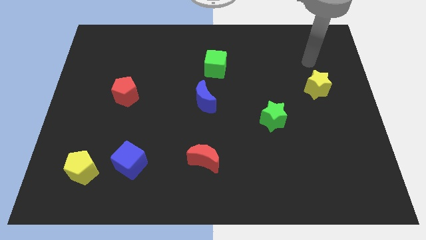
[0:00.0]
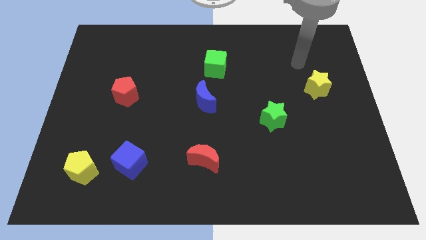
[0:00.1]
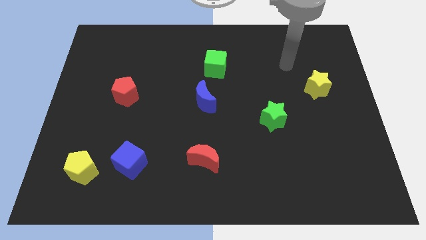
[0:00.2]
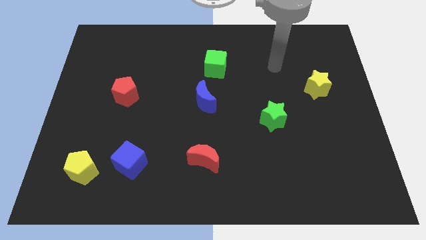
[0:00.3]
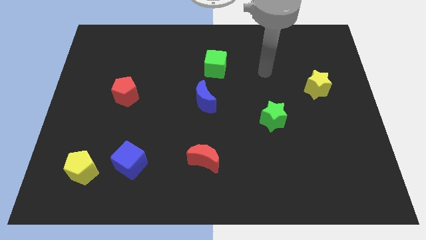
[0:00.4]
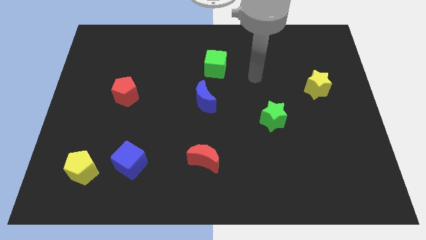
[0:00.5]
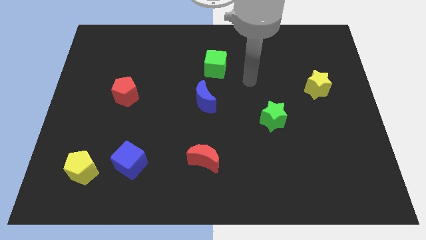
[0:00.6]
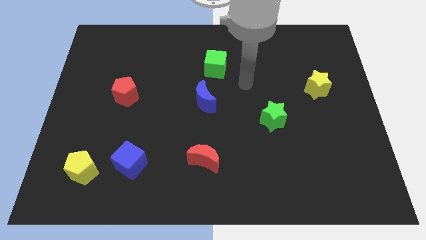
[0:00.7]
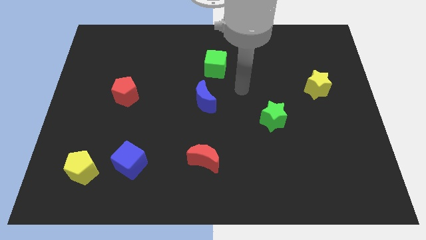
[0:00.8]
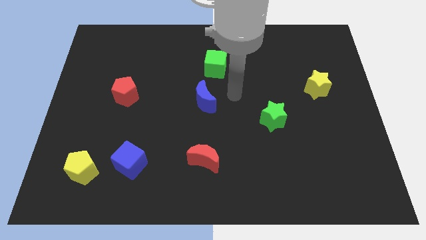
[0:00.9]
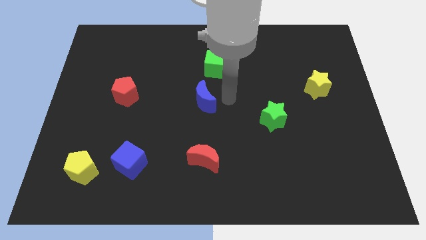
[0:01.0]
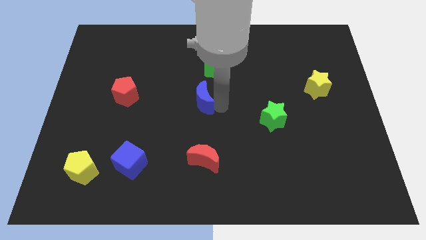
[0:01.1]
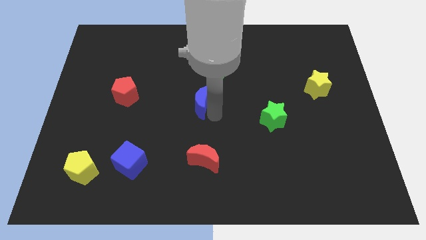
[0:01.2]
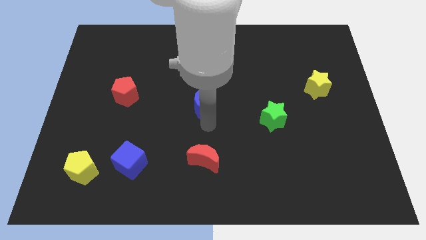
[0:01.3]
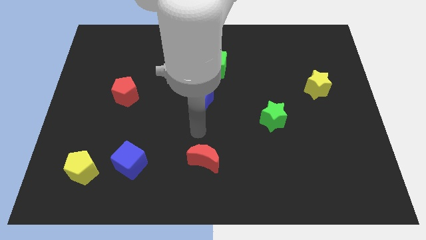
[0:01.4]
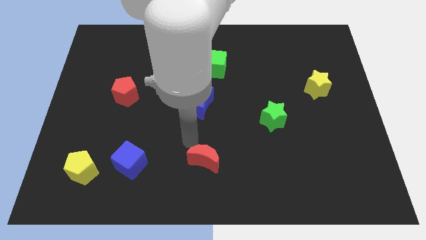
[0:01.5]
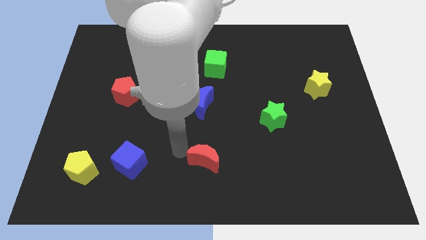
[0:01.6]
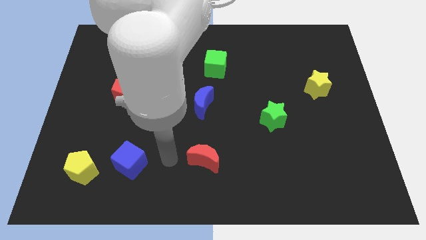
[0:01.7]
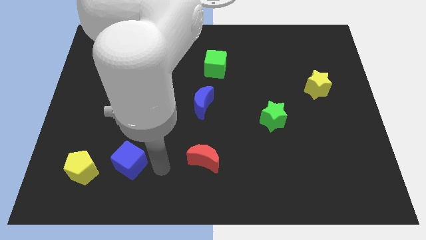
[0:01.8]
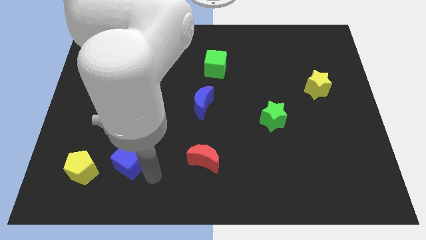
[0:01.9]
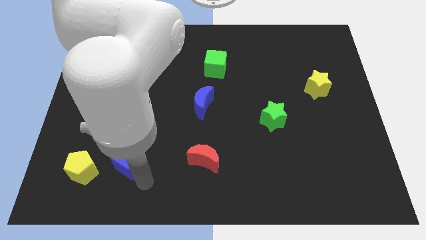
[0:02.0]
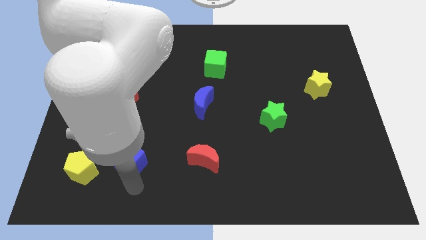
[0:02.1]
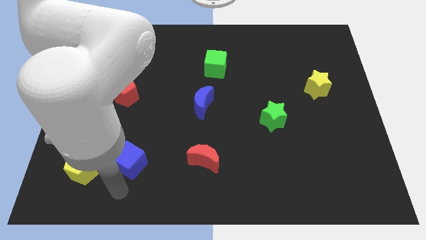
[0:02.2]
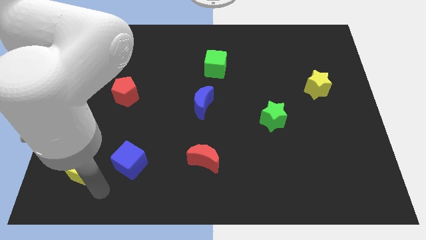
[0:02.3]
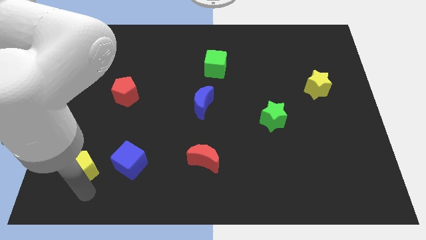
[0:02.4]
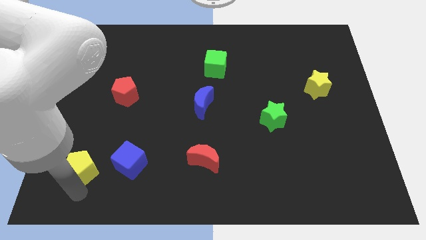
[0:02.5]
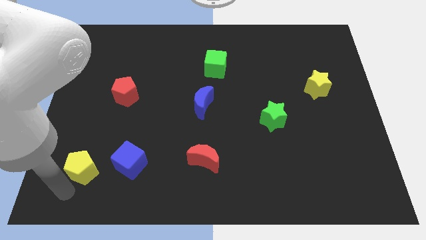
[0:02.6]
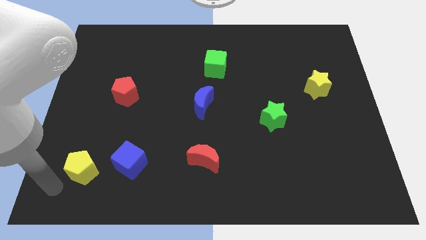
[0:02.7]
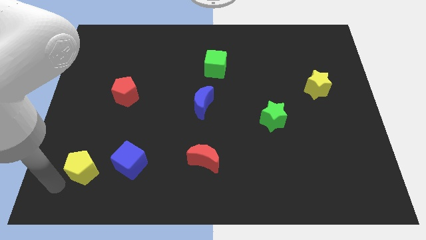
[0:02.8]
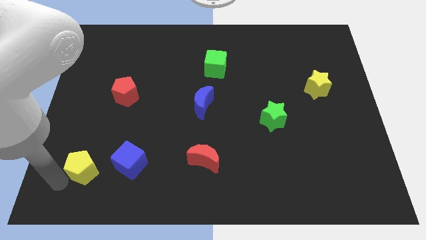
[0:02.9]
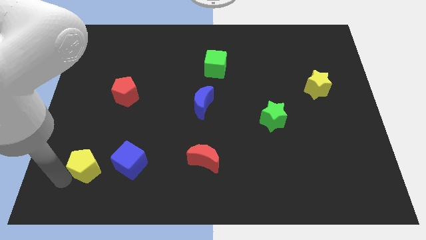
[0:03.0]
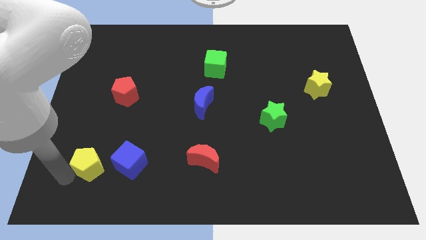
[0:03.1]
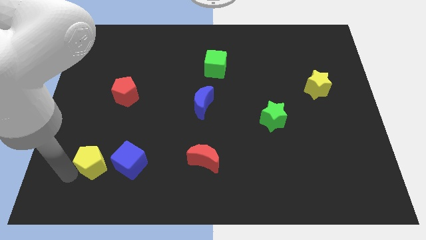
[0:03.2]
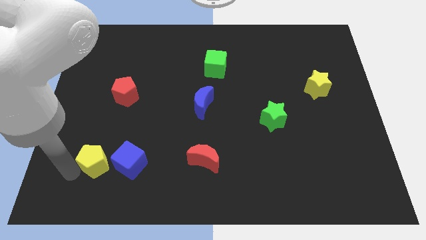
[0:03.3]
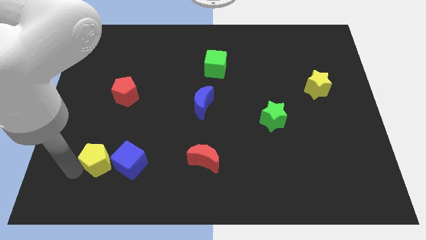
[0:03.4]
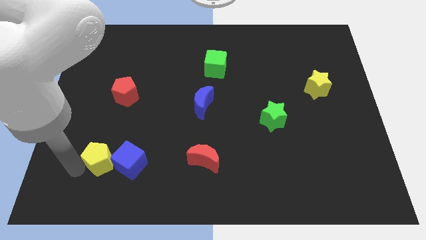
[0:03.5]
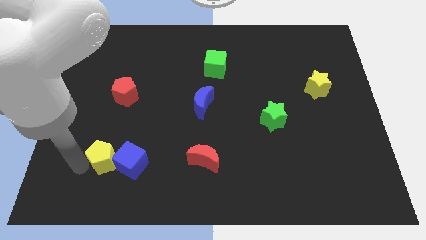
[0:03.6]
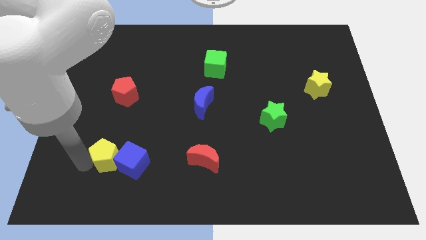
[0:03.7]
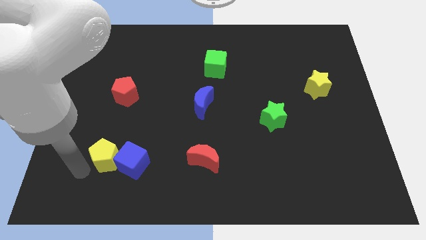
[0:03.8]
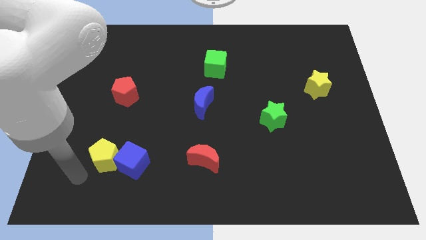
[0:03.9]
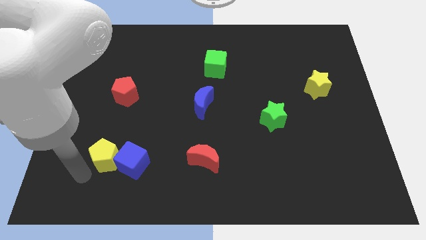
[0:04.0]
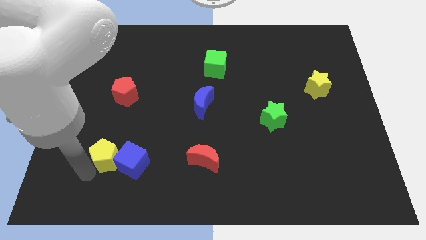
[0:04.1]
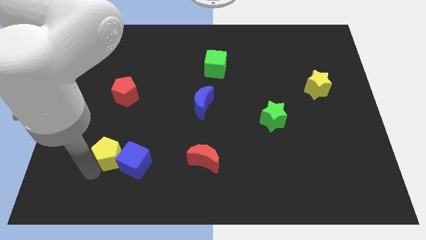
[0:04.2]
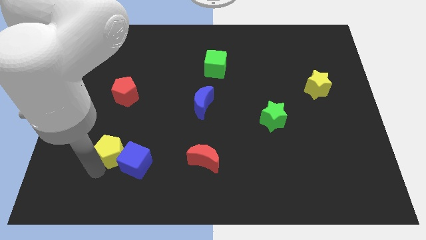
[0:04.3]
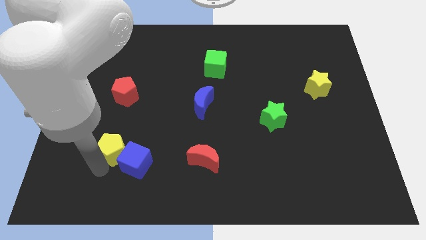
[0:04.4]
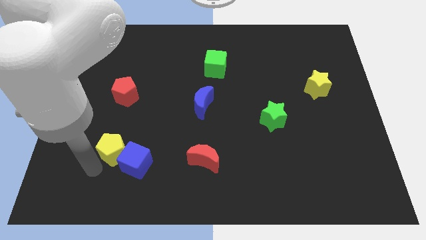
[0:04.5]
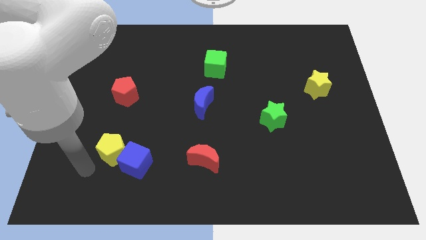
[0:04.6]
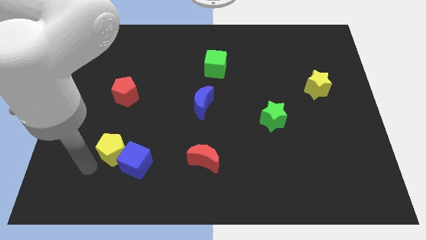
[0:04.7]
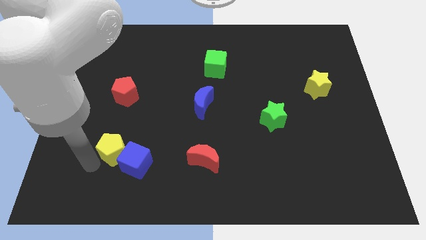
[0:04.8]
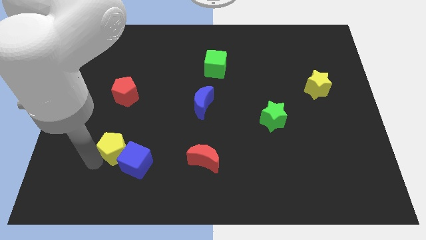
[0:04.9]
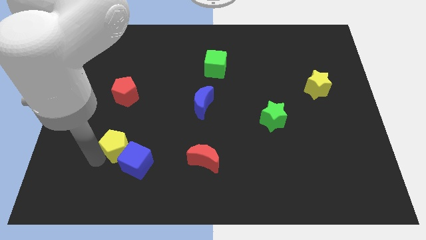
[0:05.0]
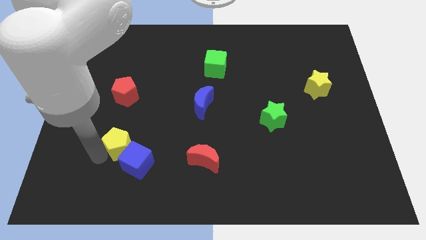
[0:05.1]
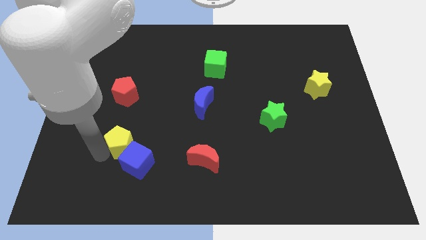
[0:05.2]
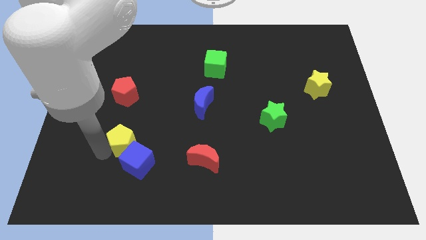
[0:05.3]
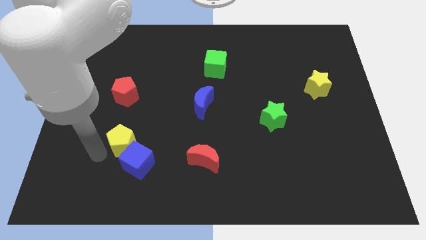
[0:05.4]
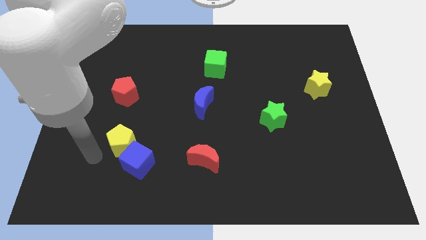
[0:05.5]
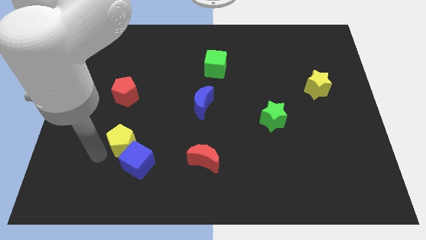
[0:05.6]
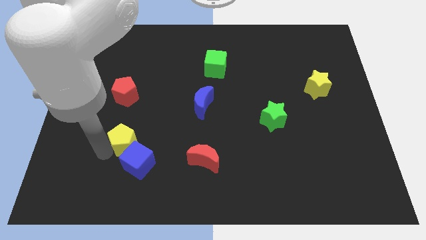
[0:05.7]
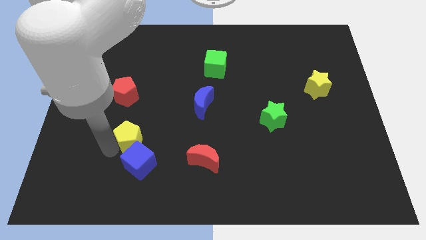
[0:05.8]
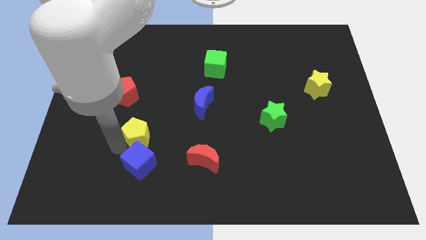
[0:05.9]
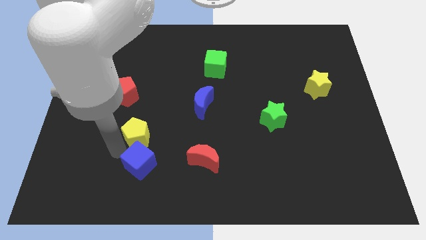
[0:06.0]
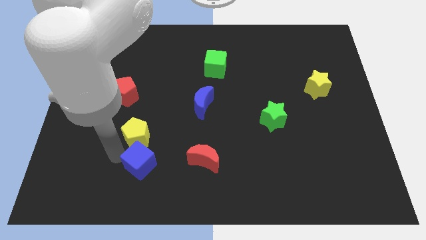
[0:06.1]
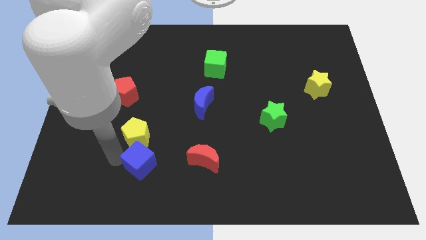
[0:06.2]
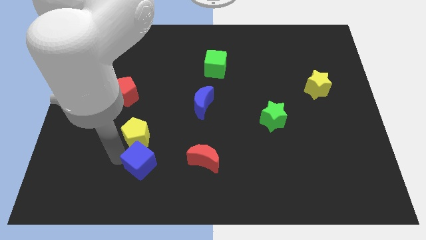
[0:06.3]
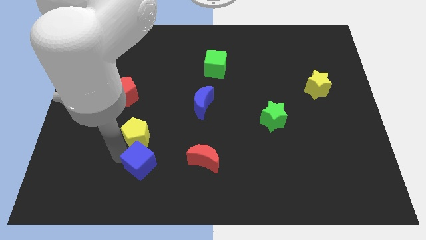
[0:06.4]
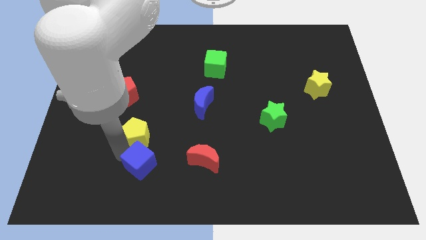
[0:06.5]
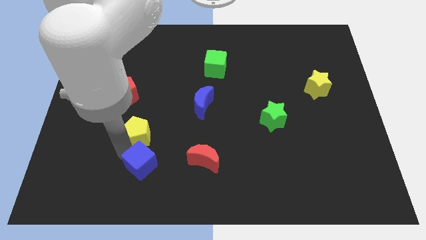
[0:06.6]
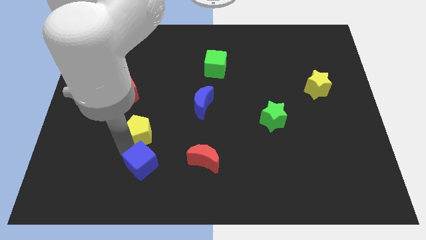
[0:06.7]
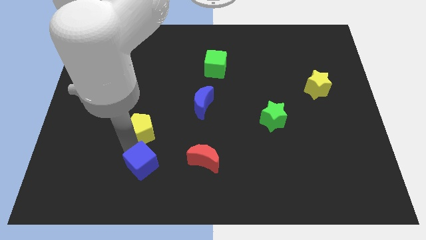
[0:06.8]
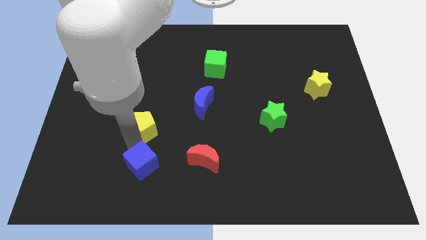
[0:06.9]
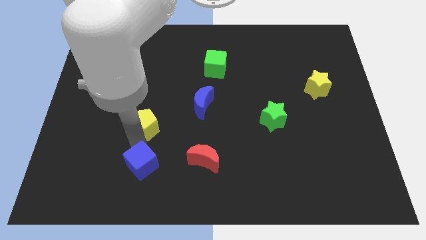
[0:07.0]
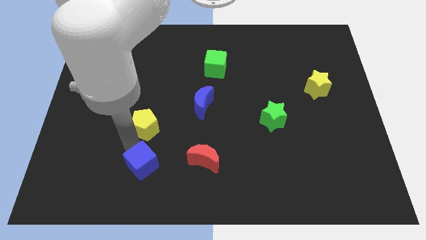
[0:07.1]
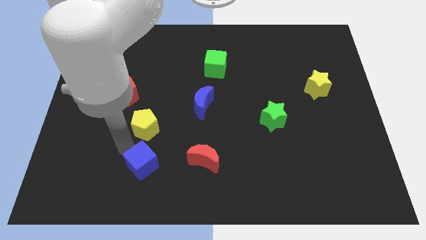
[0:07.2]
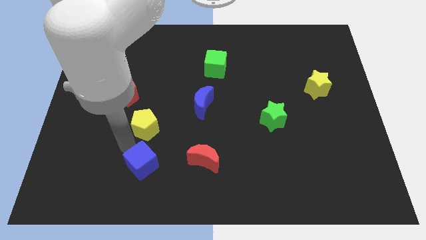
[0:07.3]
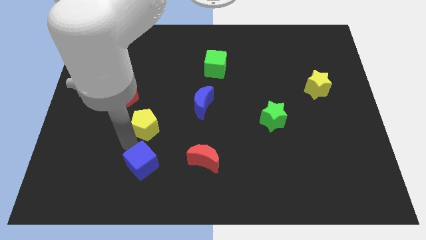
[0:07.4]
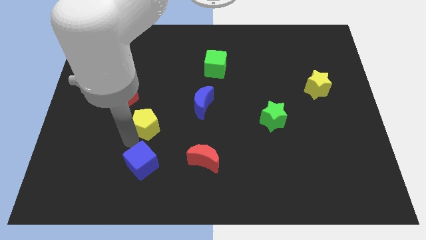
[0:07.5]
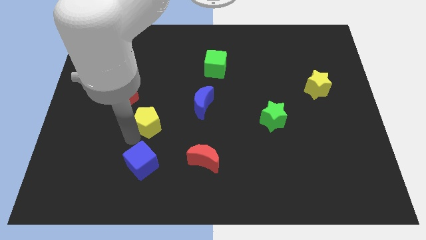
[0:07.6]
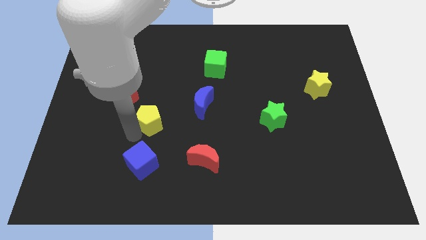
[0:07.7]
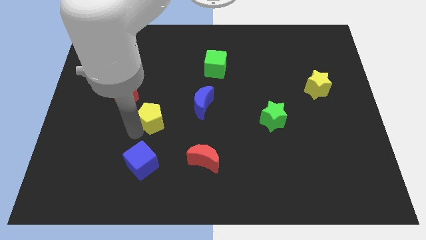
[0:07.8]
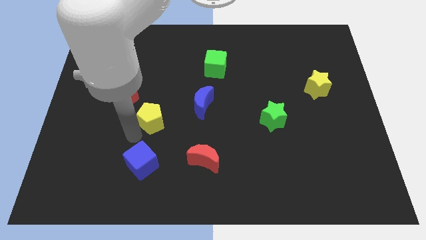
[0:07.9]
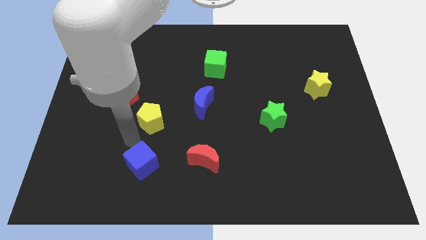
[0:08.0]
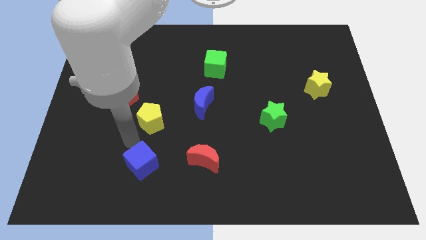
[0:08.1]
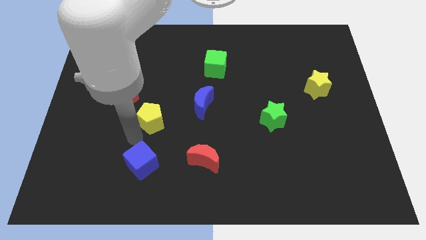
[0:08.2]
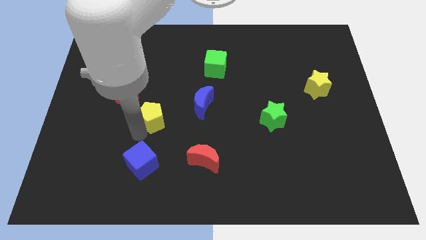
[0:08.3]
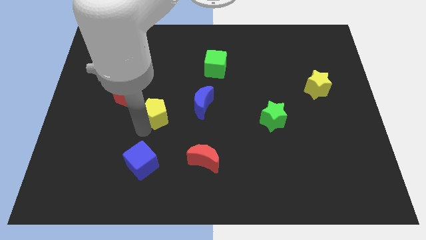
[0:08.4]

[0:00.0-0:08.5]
move the yellow pentagon up and right
